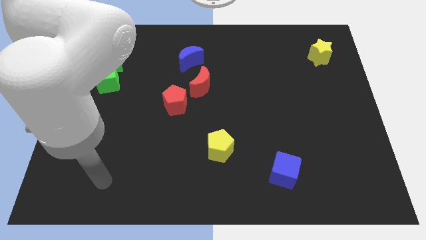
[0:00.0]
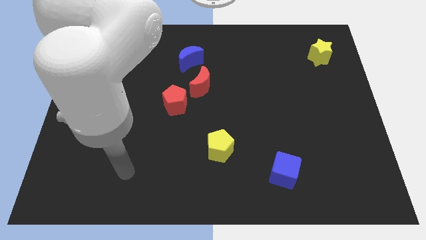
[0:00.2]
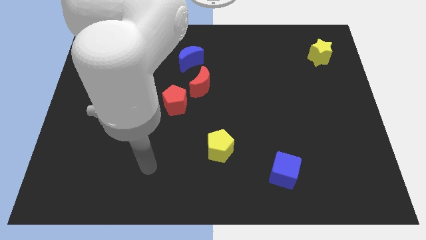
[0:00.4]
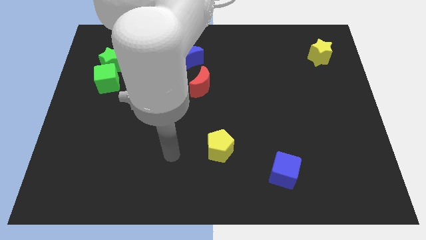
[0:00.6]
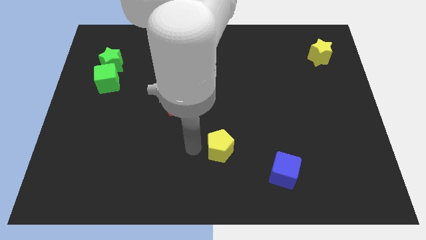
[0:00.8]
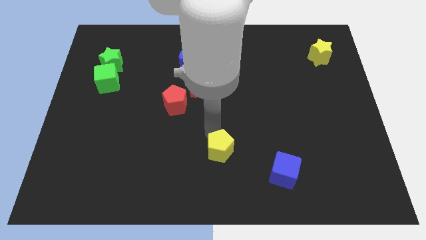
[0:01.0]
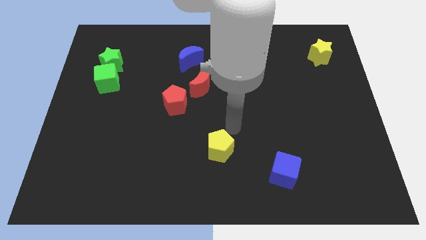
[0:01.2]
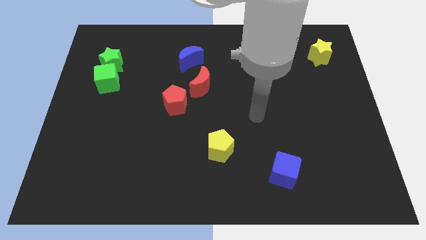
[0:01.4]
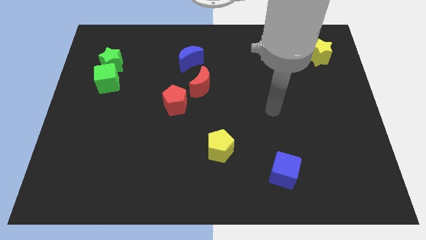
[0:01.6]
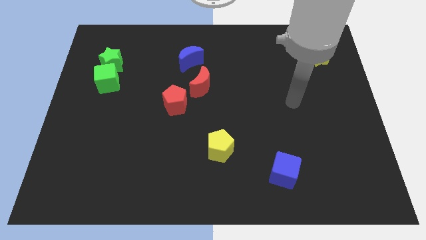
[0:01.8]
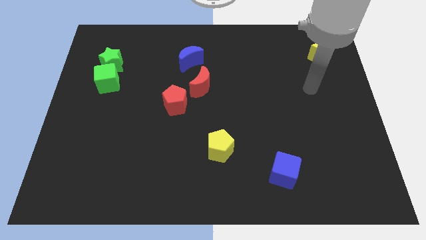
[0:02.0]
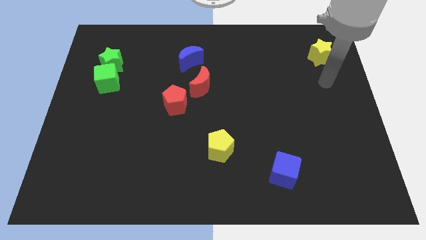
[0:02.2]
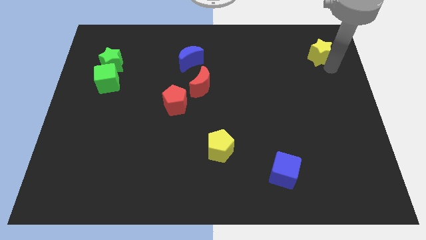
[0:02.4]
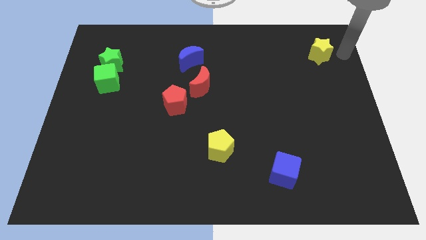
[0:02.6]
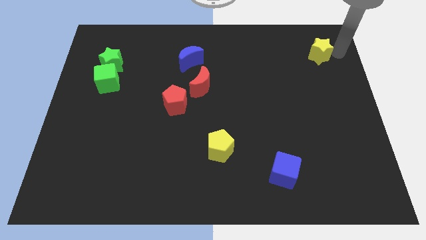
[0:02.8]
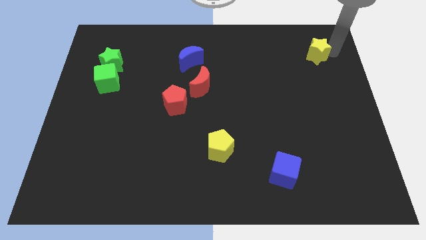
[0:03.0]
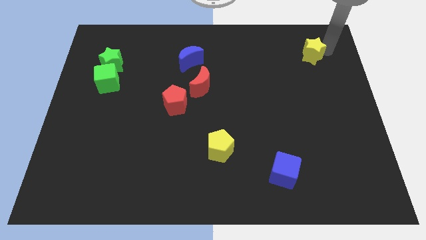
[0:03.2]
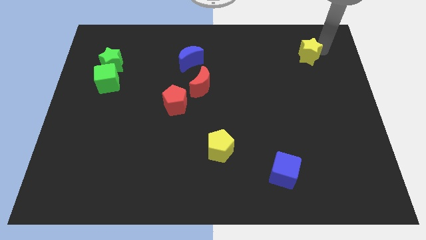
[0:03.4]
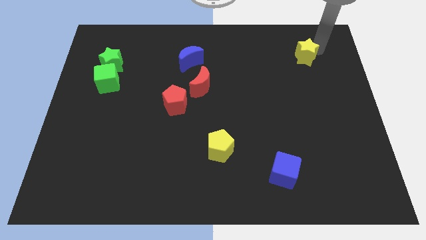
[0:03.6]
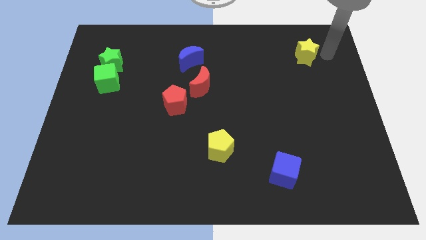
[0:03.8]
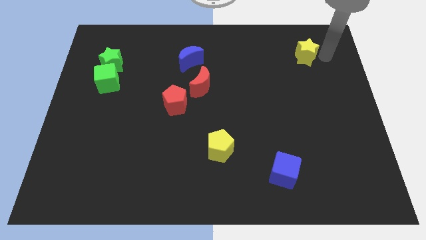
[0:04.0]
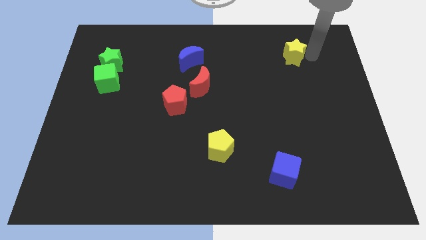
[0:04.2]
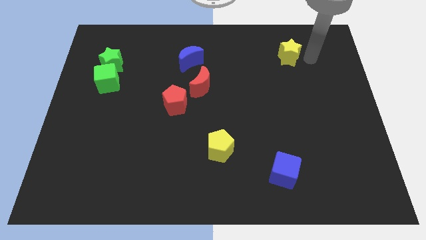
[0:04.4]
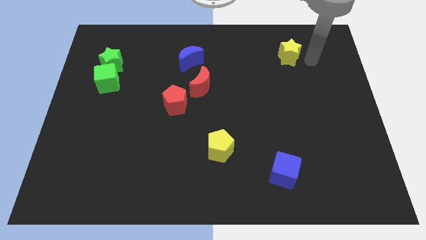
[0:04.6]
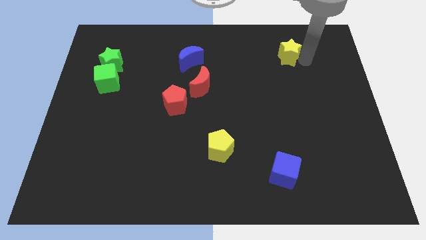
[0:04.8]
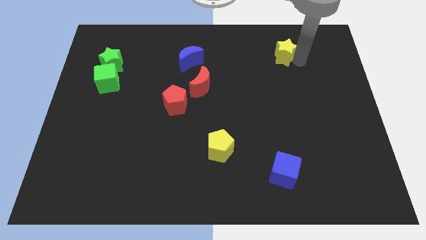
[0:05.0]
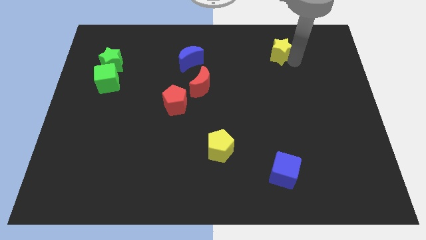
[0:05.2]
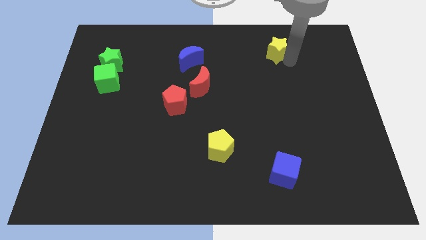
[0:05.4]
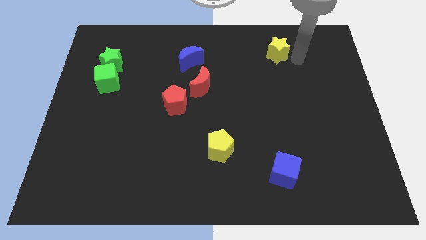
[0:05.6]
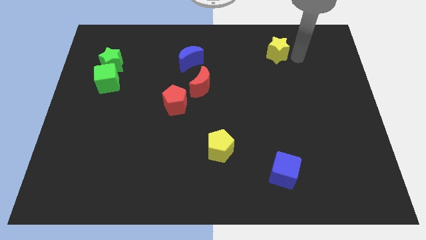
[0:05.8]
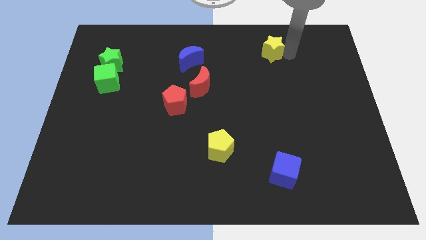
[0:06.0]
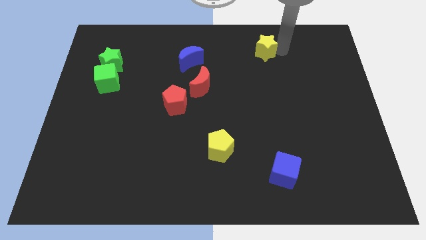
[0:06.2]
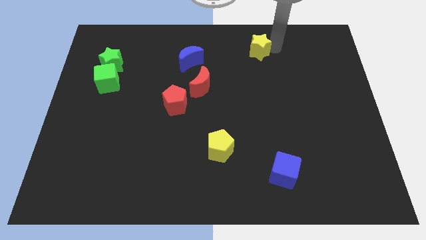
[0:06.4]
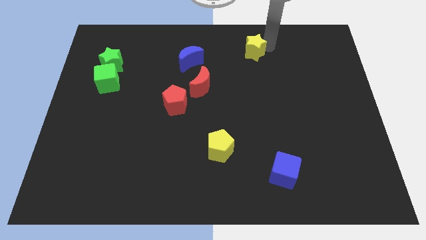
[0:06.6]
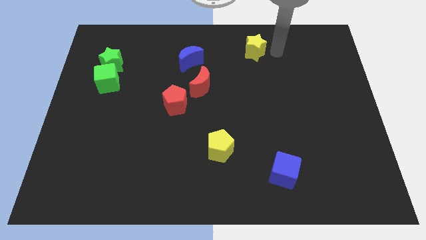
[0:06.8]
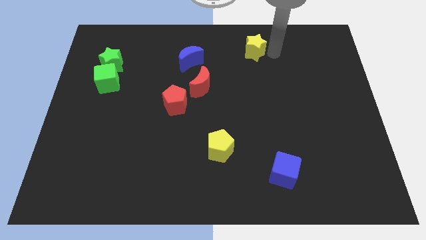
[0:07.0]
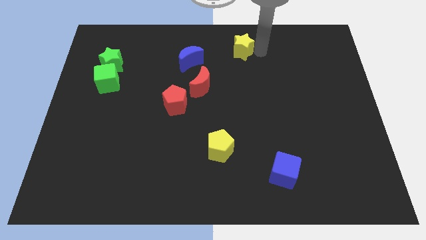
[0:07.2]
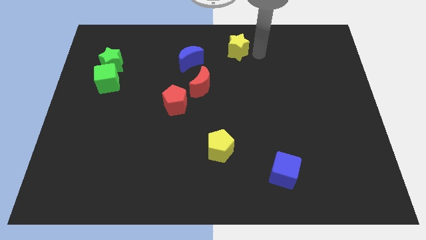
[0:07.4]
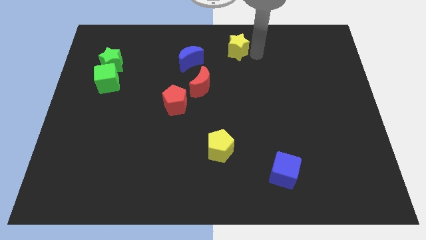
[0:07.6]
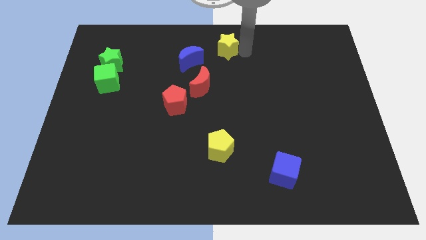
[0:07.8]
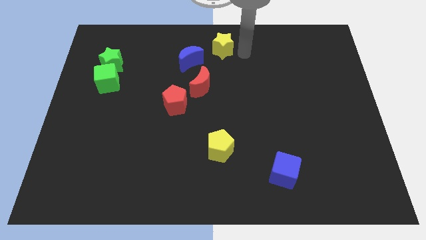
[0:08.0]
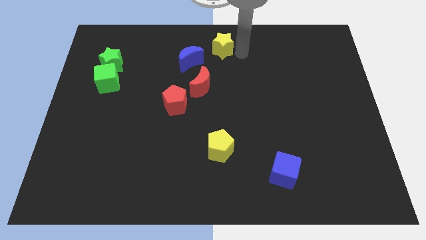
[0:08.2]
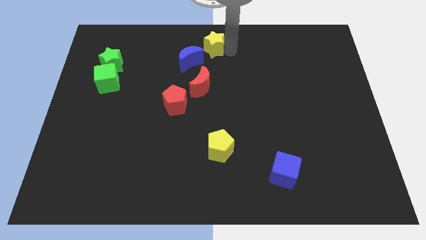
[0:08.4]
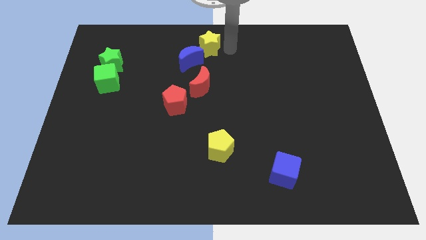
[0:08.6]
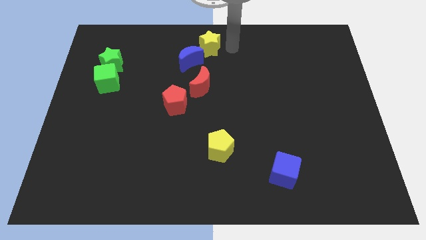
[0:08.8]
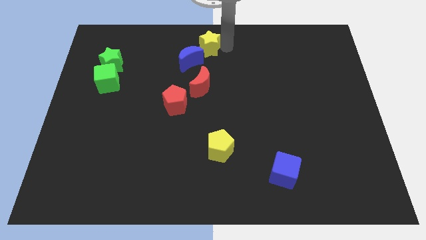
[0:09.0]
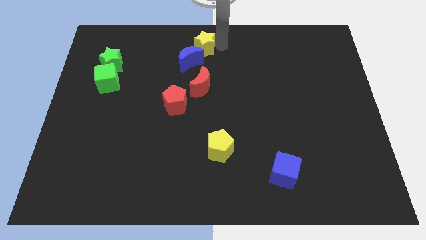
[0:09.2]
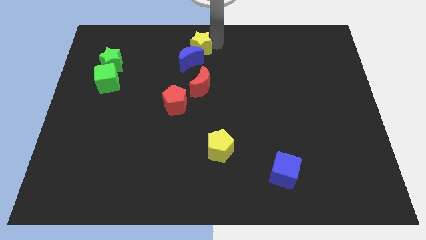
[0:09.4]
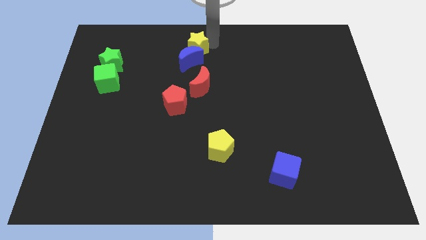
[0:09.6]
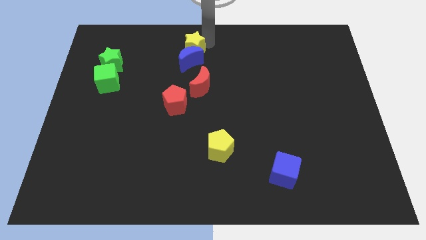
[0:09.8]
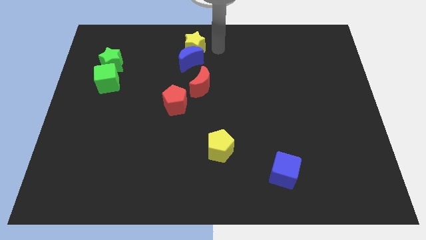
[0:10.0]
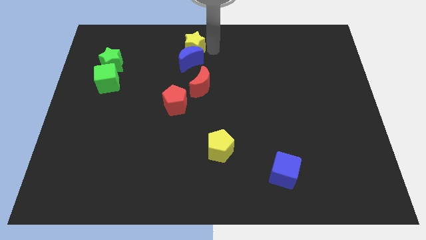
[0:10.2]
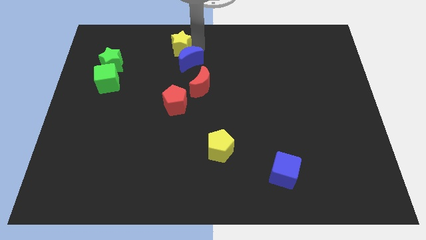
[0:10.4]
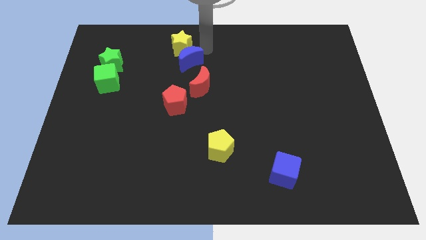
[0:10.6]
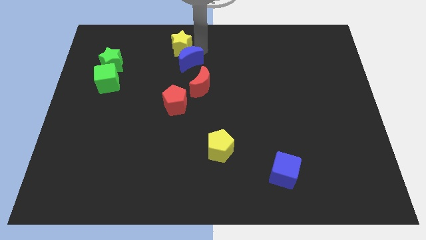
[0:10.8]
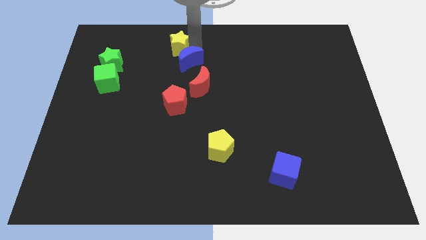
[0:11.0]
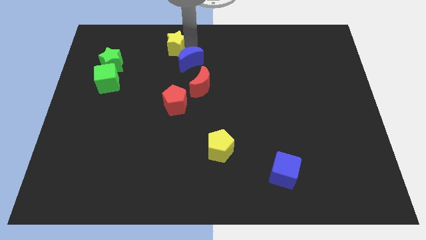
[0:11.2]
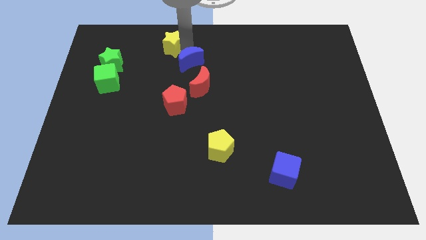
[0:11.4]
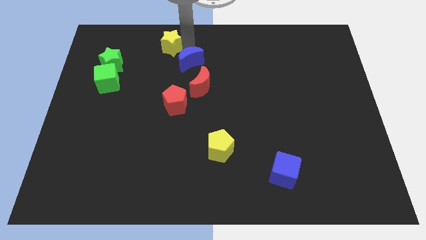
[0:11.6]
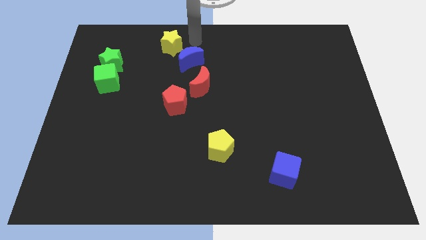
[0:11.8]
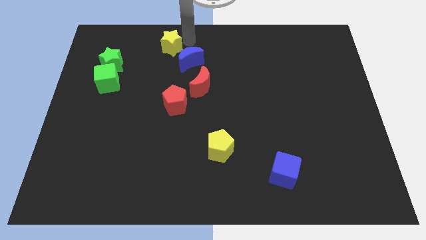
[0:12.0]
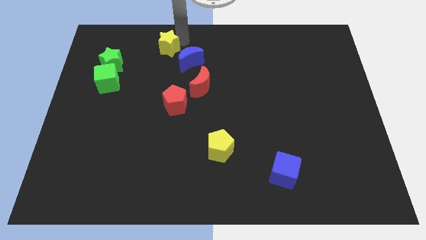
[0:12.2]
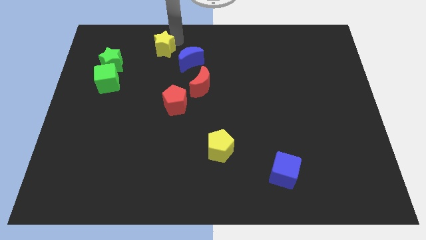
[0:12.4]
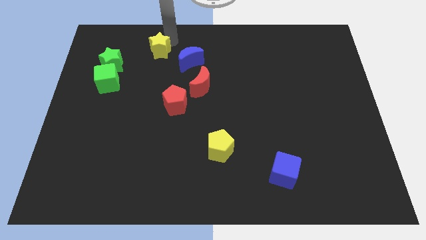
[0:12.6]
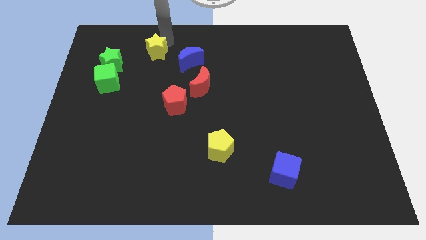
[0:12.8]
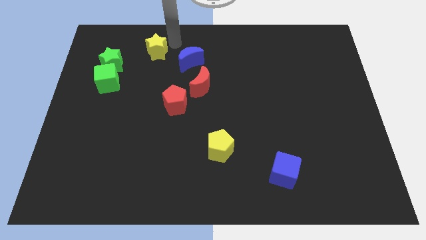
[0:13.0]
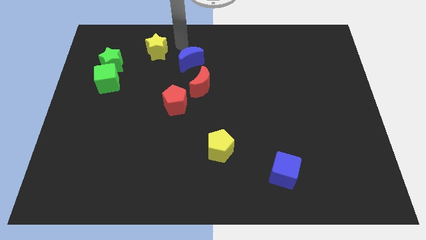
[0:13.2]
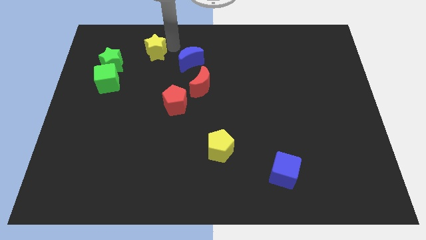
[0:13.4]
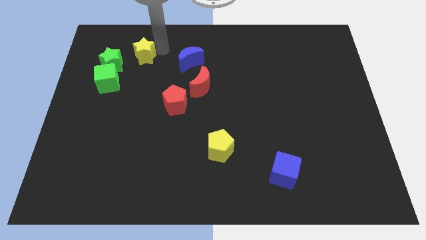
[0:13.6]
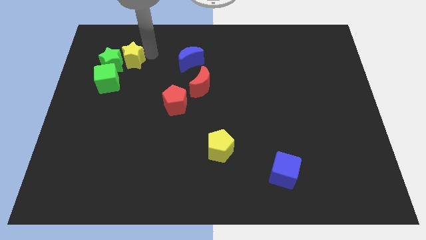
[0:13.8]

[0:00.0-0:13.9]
push the yellow star towards the green star
